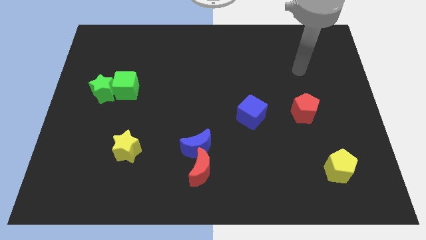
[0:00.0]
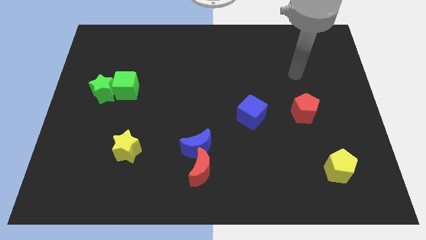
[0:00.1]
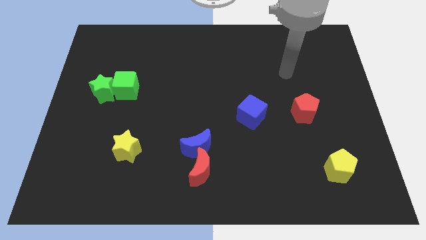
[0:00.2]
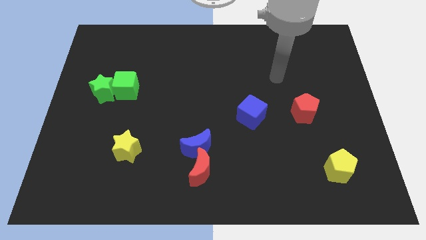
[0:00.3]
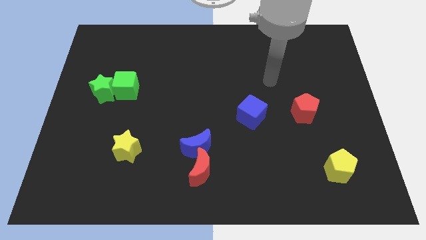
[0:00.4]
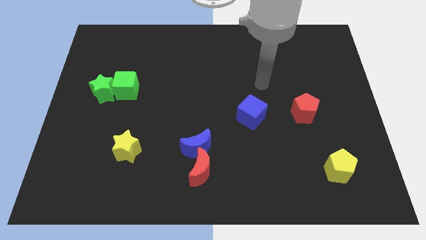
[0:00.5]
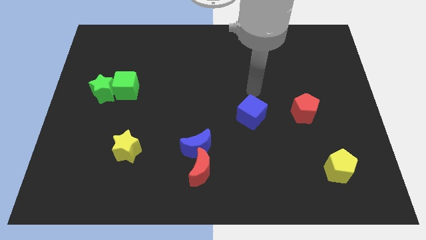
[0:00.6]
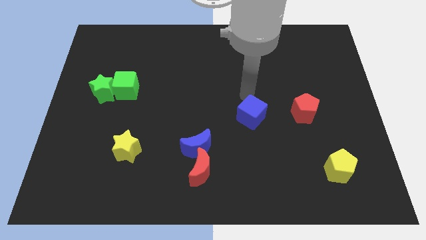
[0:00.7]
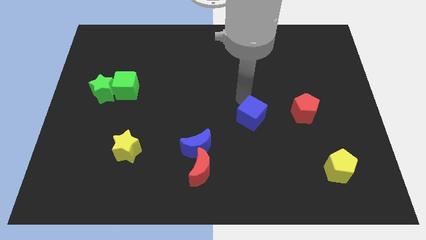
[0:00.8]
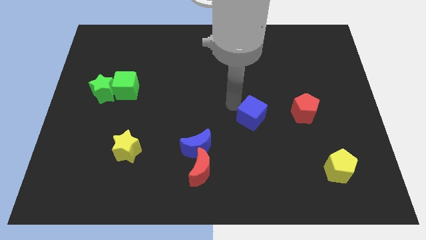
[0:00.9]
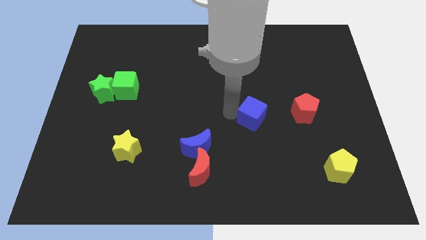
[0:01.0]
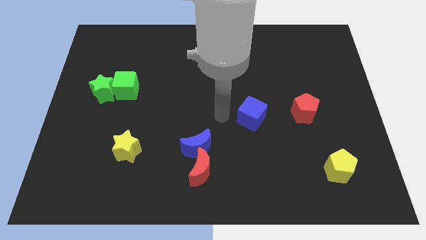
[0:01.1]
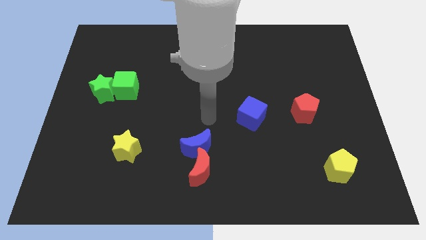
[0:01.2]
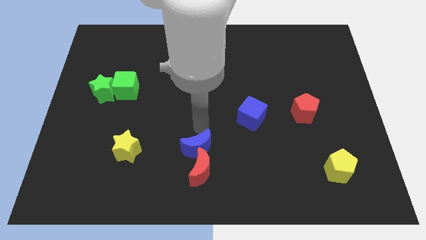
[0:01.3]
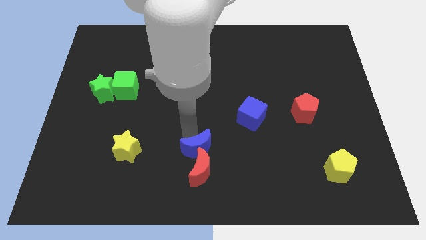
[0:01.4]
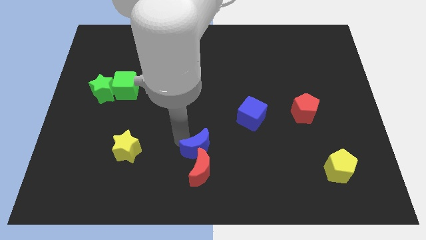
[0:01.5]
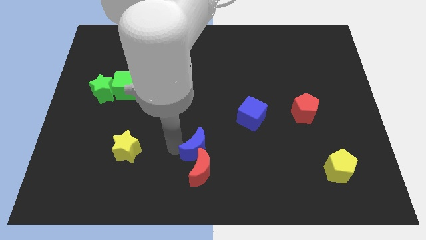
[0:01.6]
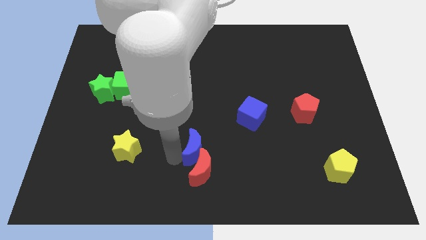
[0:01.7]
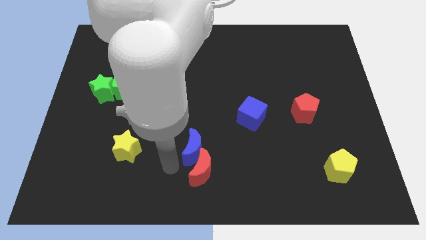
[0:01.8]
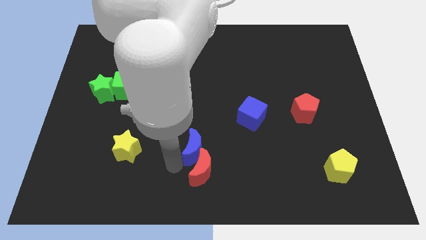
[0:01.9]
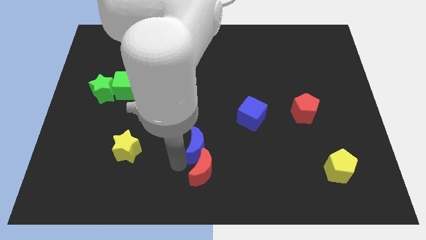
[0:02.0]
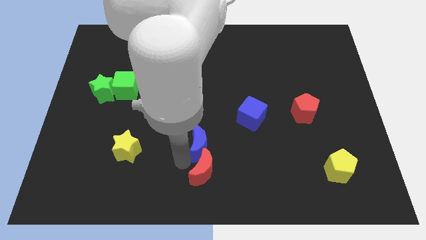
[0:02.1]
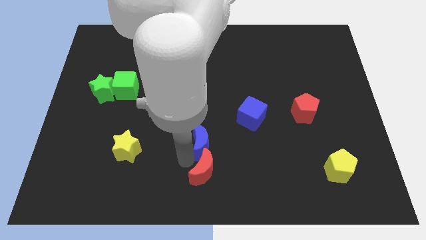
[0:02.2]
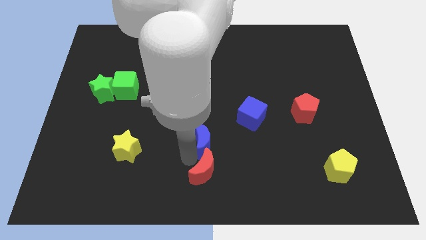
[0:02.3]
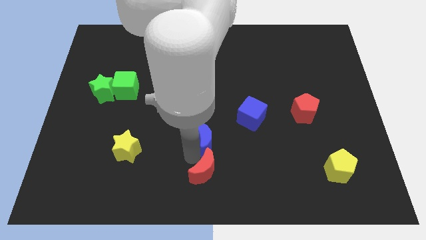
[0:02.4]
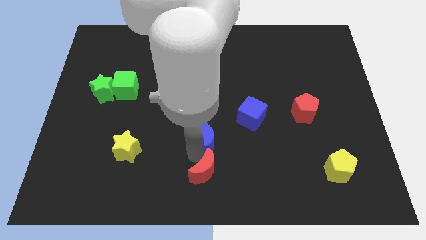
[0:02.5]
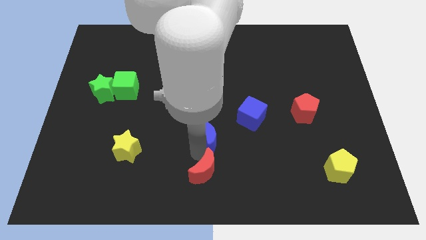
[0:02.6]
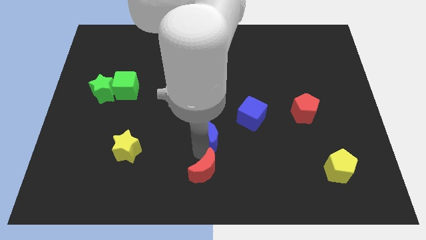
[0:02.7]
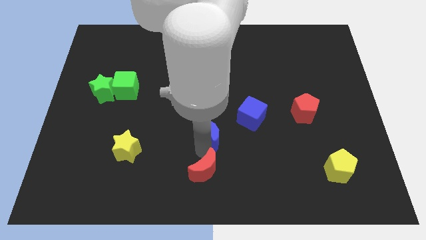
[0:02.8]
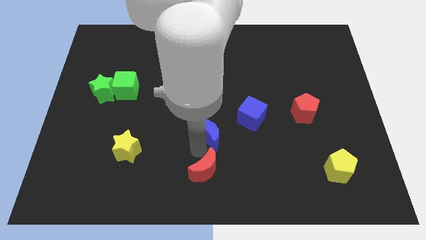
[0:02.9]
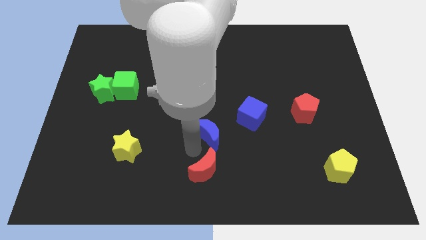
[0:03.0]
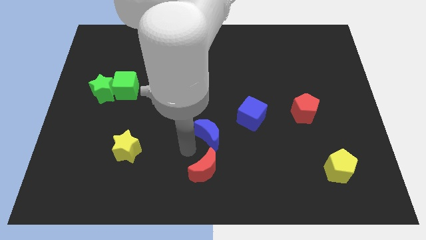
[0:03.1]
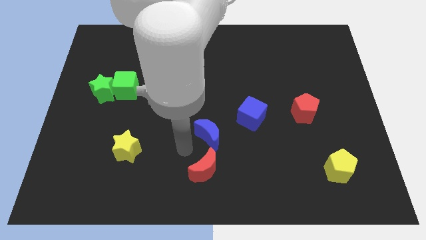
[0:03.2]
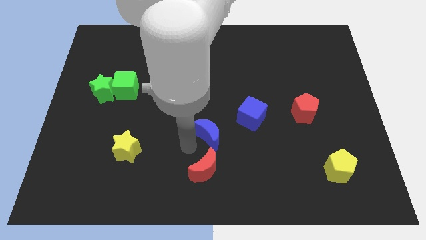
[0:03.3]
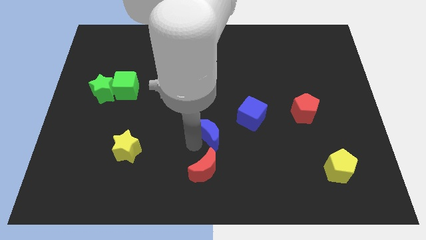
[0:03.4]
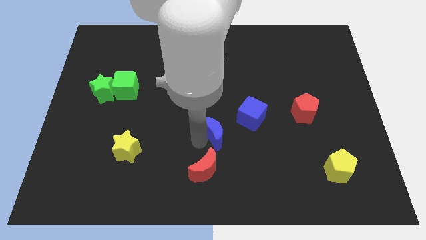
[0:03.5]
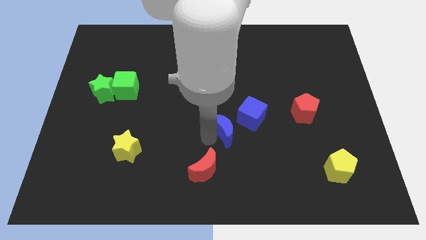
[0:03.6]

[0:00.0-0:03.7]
move the blue moon diagonally up and right a little bit

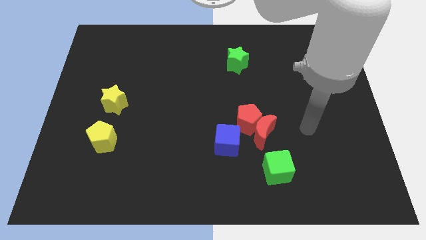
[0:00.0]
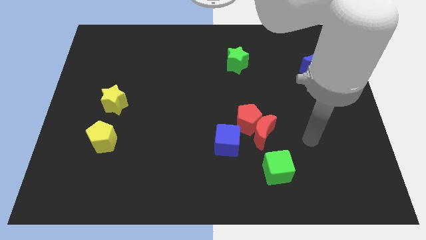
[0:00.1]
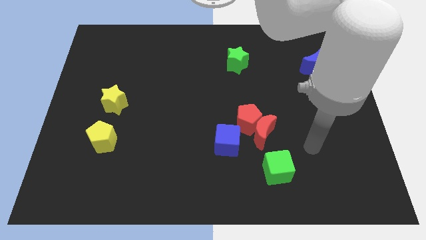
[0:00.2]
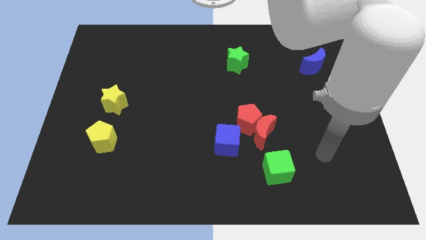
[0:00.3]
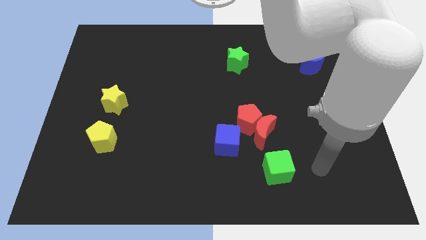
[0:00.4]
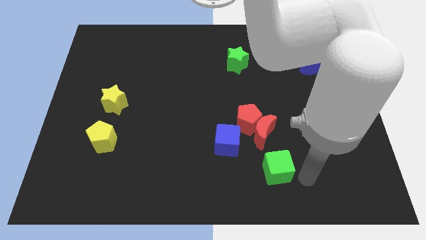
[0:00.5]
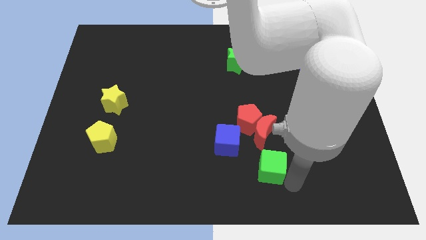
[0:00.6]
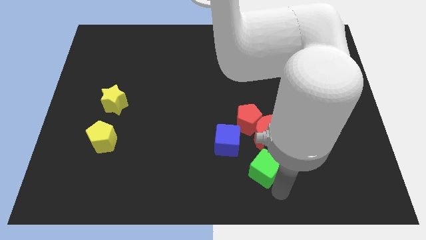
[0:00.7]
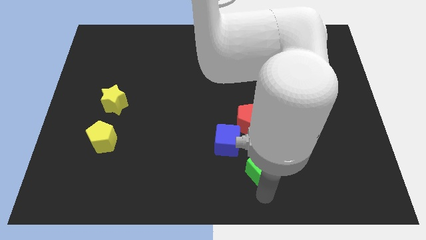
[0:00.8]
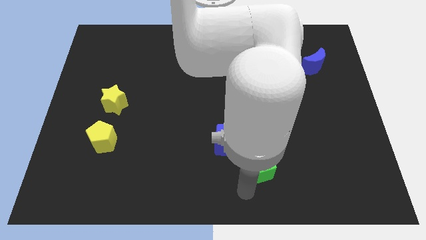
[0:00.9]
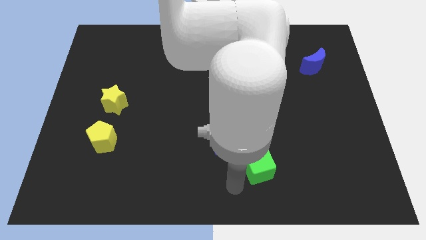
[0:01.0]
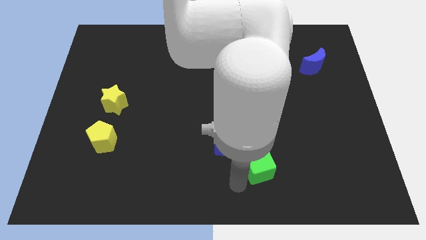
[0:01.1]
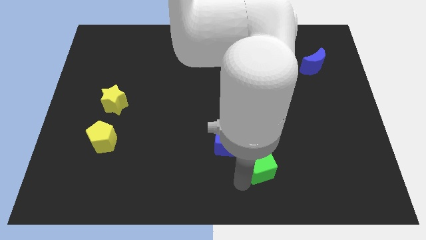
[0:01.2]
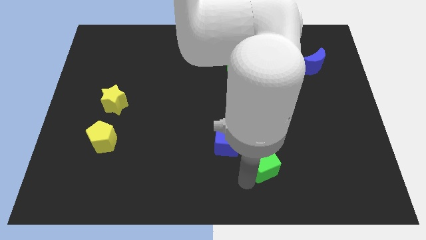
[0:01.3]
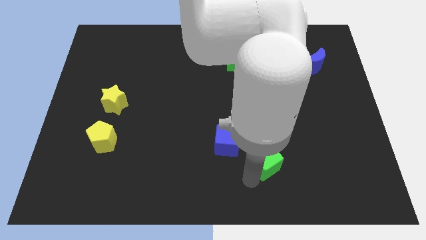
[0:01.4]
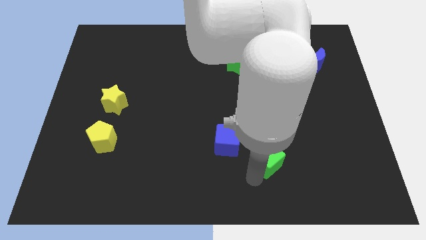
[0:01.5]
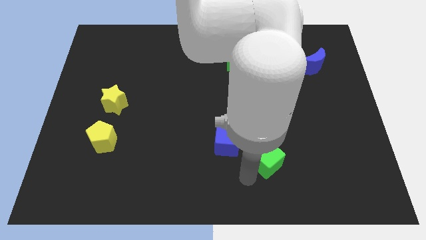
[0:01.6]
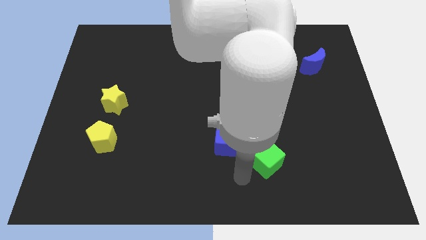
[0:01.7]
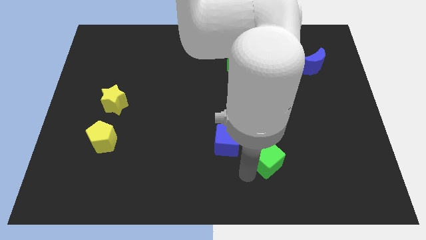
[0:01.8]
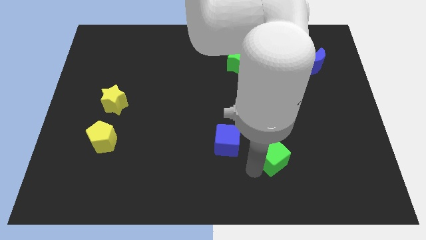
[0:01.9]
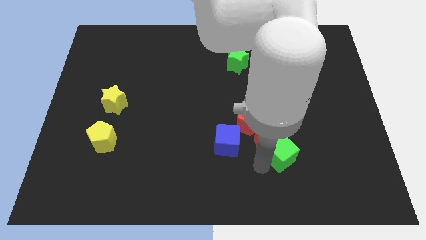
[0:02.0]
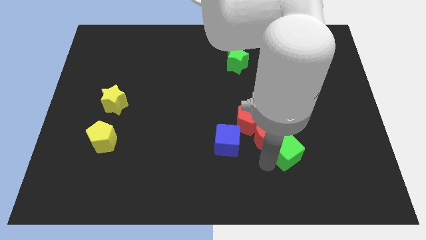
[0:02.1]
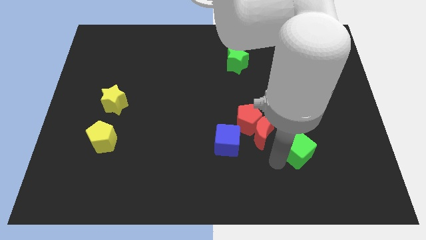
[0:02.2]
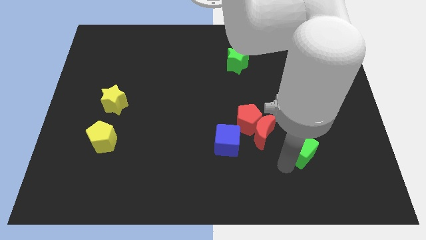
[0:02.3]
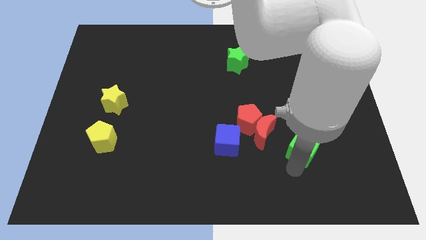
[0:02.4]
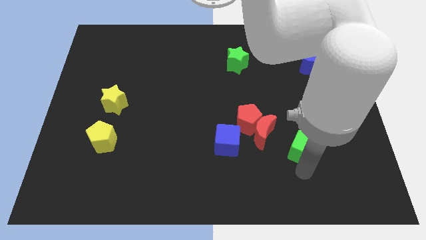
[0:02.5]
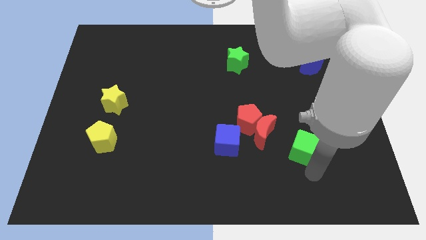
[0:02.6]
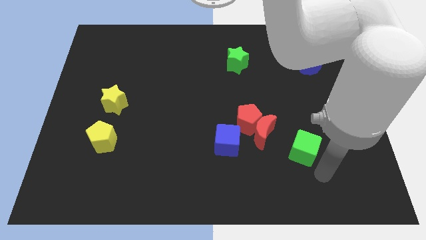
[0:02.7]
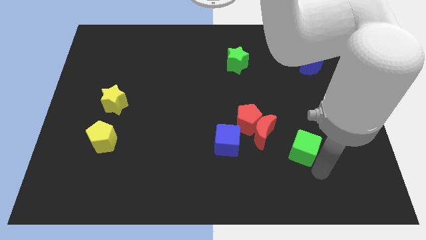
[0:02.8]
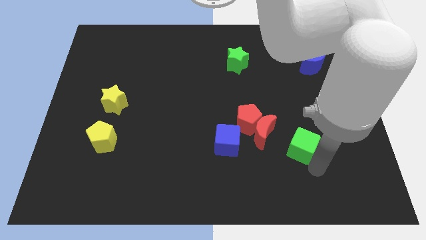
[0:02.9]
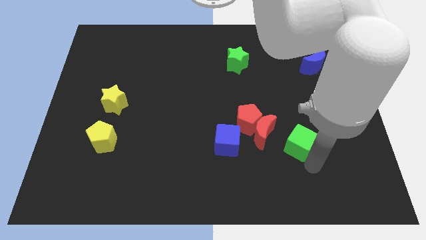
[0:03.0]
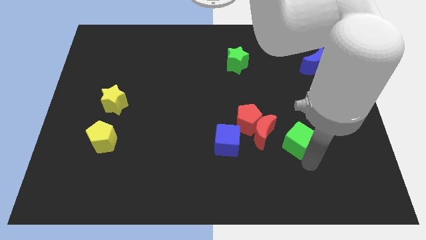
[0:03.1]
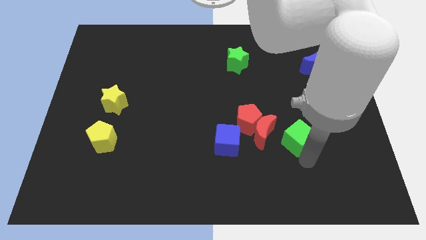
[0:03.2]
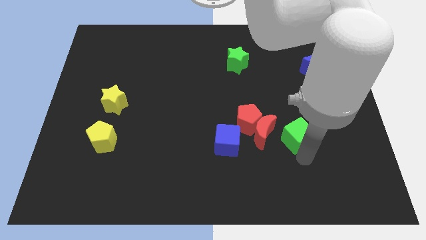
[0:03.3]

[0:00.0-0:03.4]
slightly move the green cube up

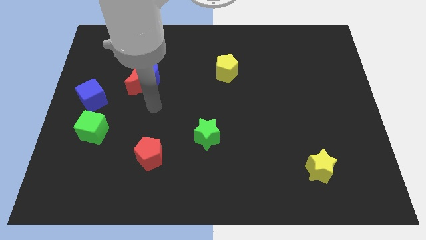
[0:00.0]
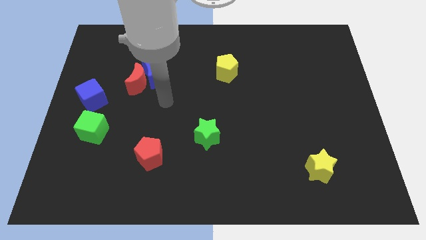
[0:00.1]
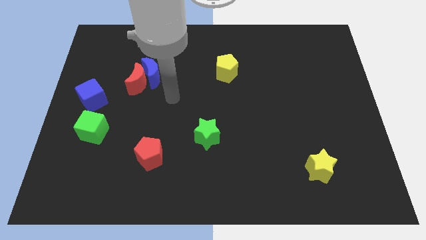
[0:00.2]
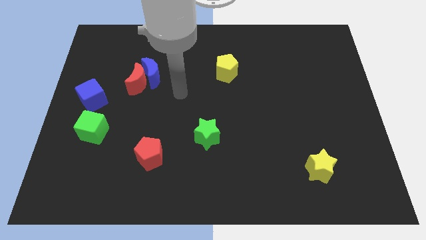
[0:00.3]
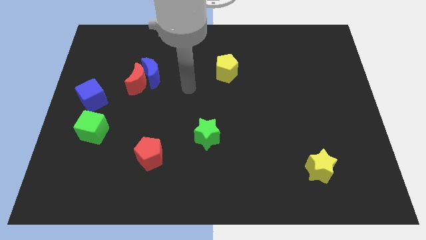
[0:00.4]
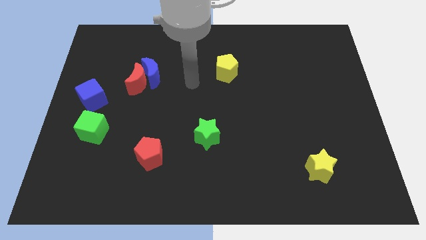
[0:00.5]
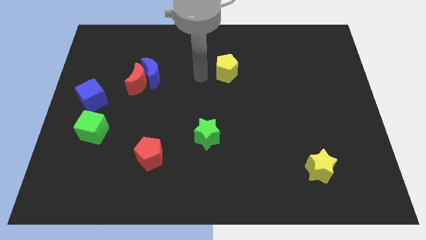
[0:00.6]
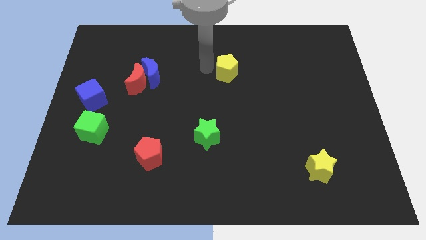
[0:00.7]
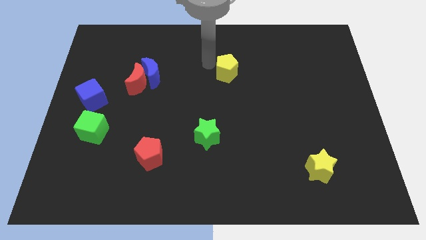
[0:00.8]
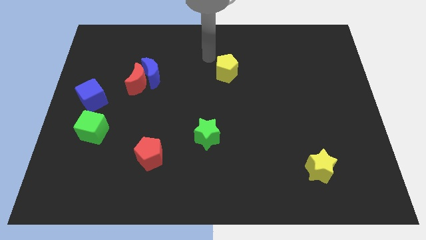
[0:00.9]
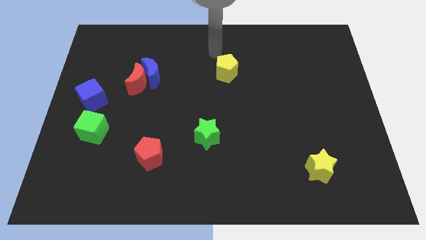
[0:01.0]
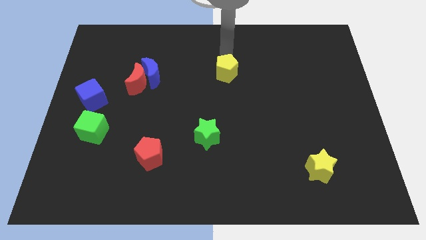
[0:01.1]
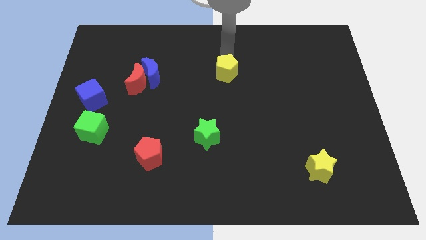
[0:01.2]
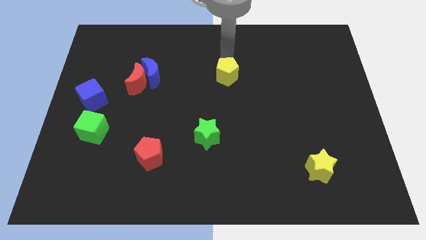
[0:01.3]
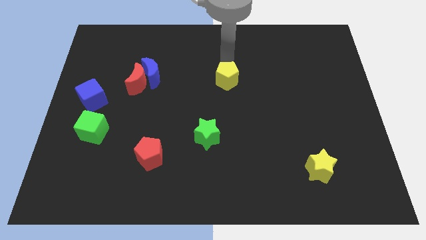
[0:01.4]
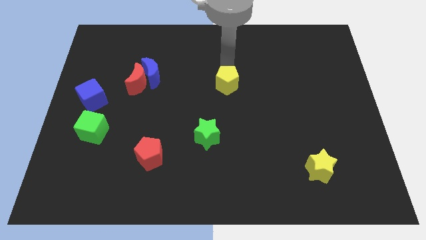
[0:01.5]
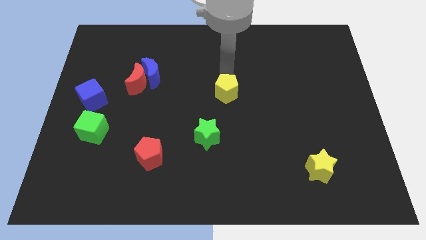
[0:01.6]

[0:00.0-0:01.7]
slightly push the yellow pentagon down
